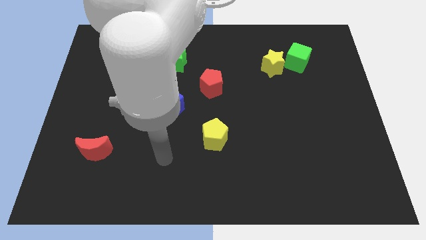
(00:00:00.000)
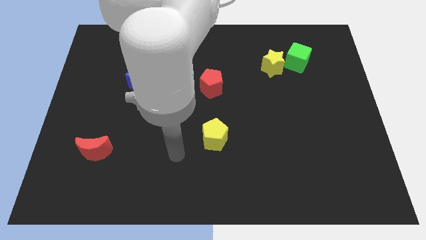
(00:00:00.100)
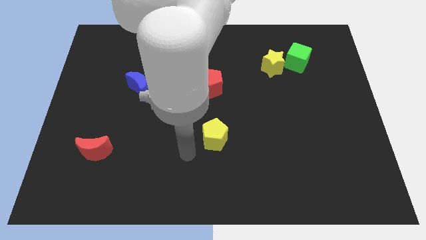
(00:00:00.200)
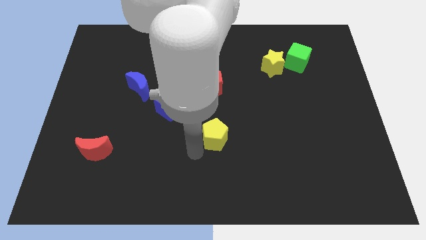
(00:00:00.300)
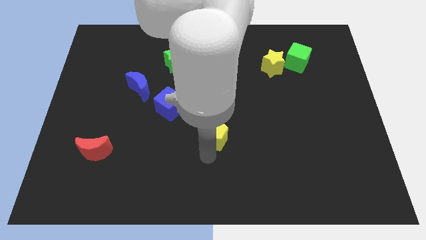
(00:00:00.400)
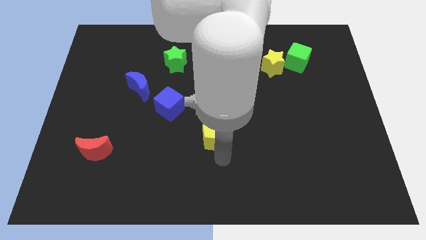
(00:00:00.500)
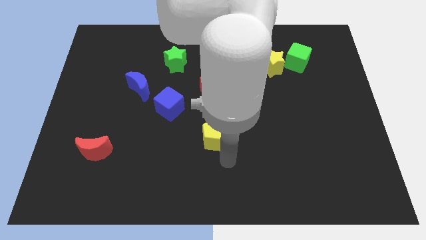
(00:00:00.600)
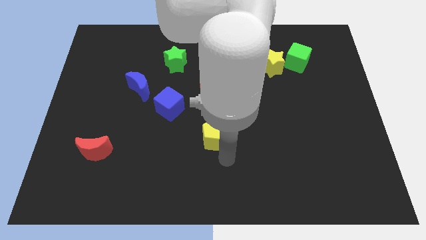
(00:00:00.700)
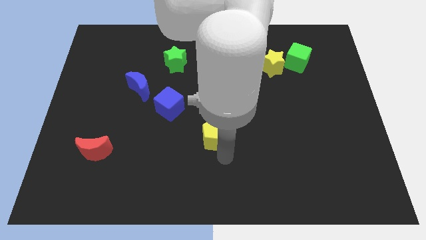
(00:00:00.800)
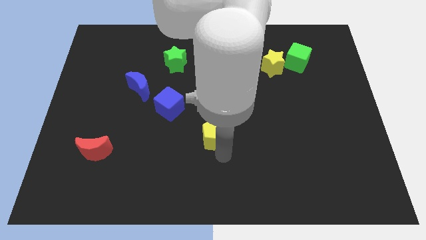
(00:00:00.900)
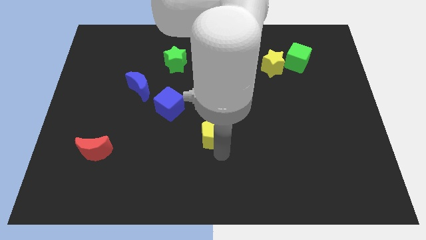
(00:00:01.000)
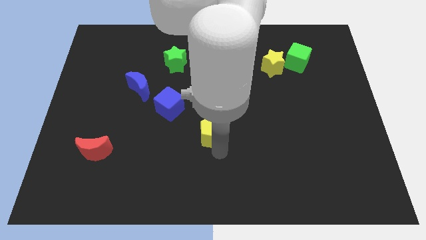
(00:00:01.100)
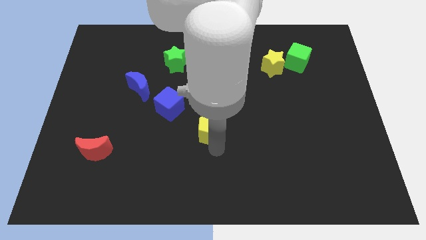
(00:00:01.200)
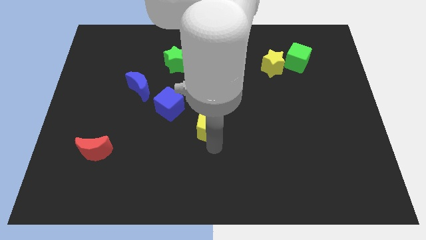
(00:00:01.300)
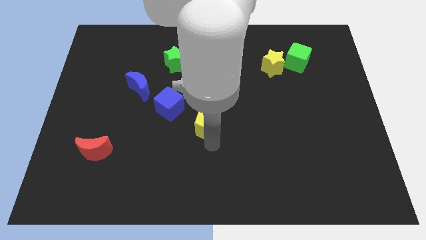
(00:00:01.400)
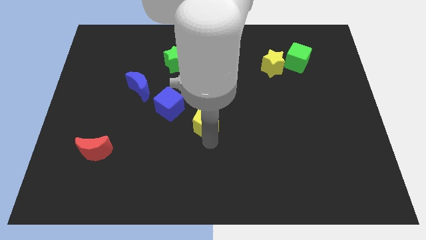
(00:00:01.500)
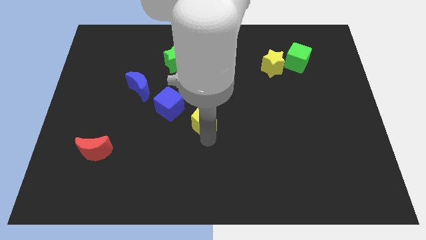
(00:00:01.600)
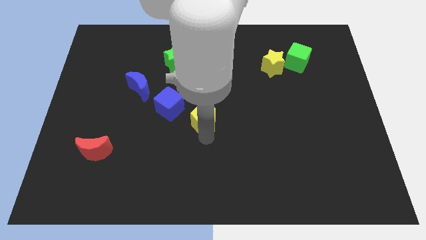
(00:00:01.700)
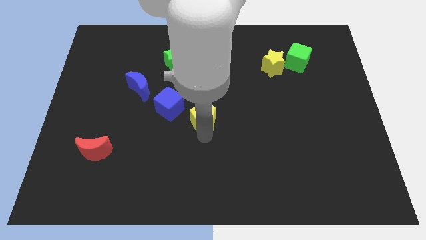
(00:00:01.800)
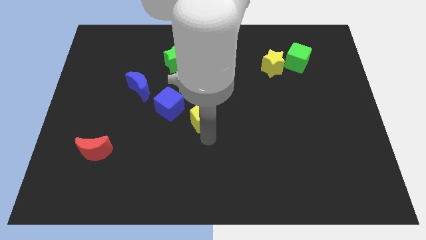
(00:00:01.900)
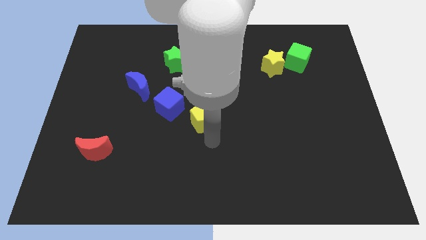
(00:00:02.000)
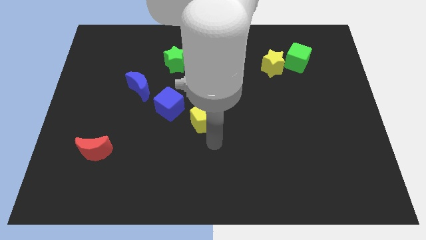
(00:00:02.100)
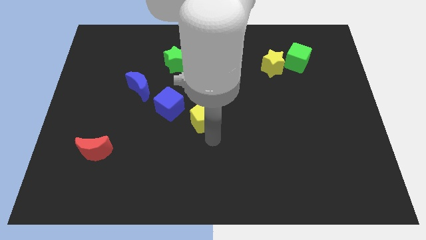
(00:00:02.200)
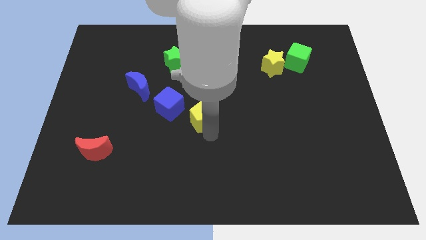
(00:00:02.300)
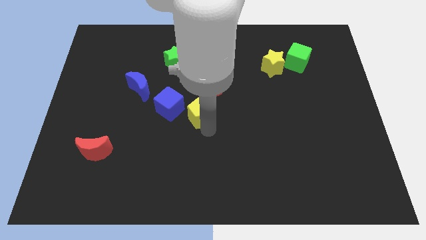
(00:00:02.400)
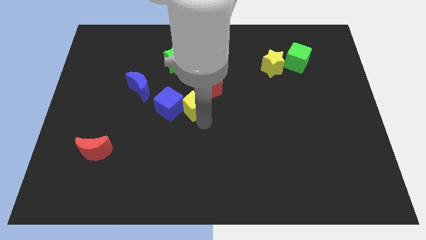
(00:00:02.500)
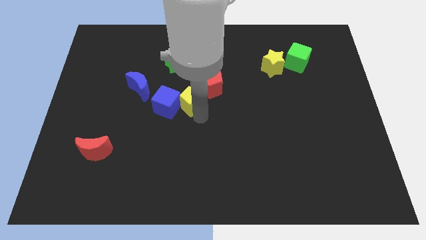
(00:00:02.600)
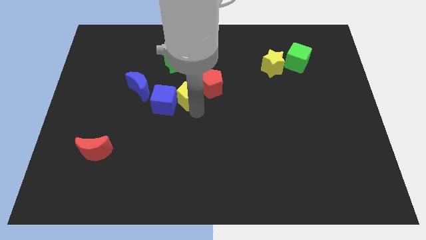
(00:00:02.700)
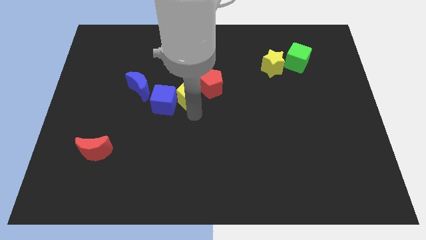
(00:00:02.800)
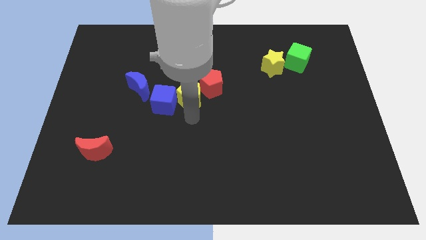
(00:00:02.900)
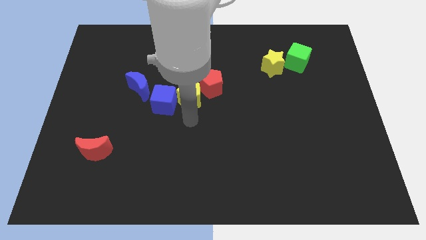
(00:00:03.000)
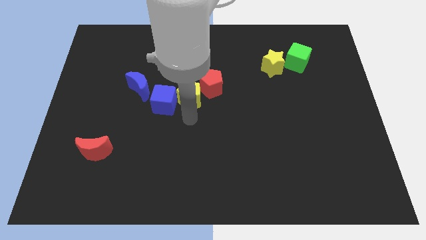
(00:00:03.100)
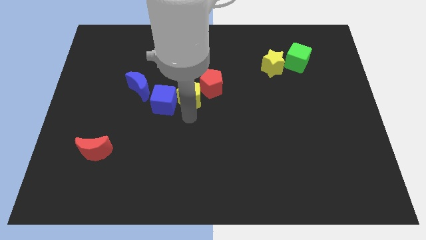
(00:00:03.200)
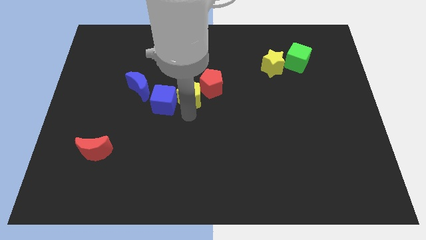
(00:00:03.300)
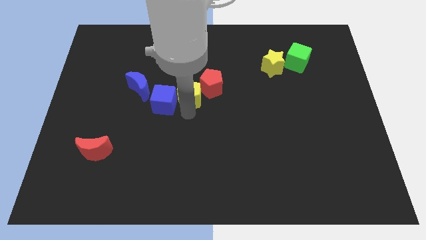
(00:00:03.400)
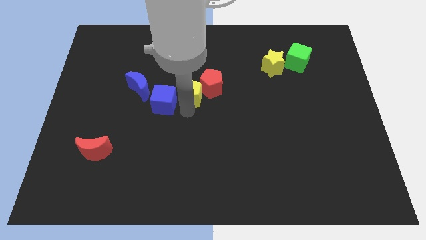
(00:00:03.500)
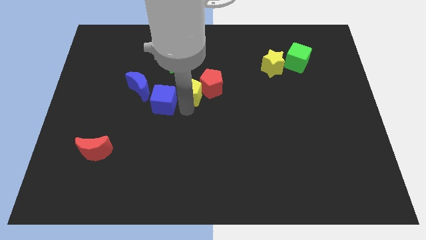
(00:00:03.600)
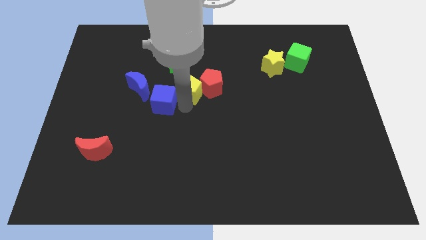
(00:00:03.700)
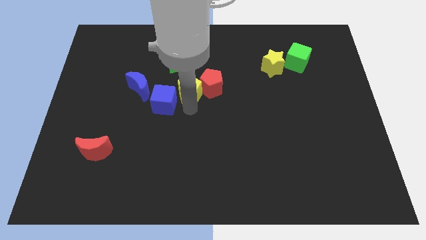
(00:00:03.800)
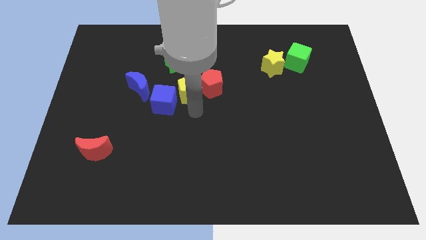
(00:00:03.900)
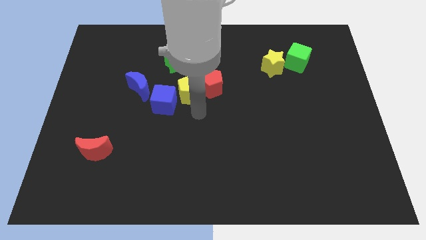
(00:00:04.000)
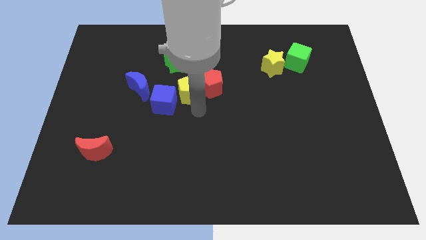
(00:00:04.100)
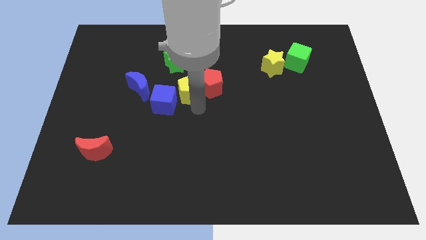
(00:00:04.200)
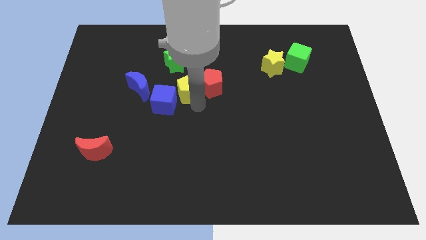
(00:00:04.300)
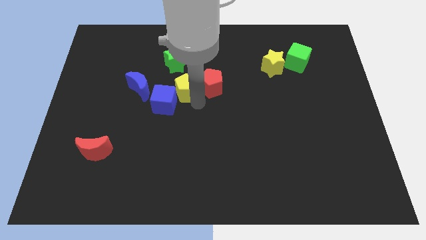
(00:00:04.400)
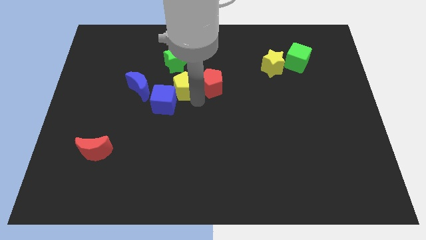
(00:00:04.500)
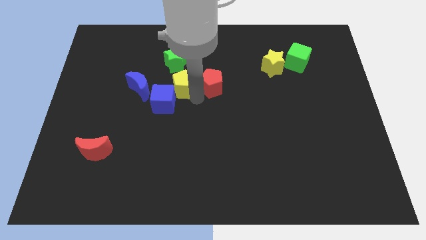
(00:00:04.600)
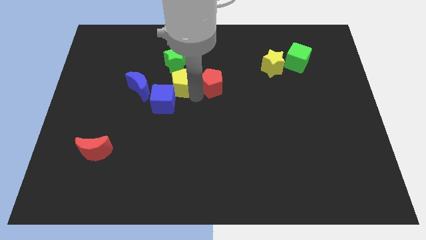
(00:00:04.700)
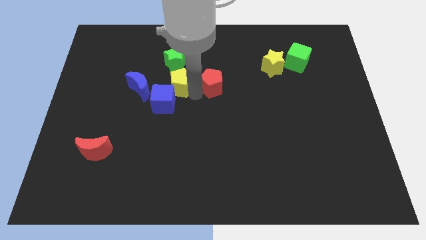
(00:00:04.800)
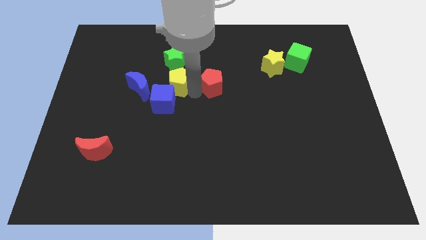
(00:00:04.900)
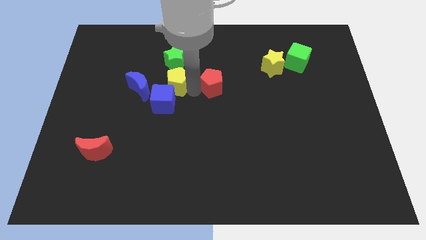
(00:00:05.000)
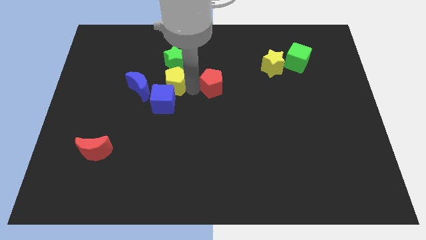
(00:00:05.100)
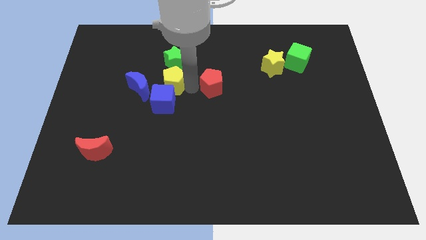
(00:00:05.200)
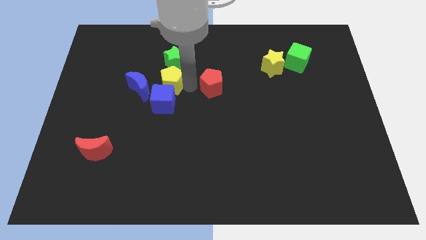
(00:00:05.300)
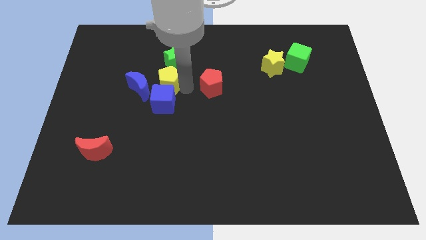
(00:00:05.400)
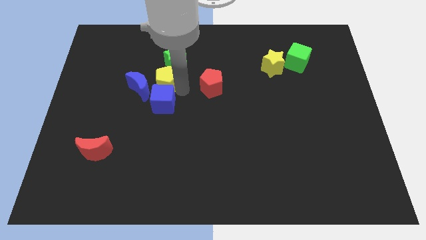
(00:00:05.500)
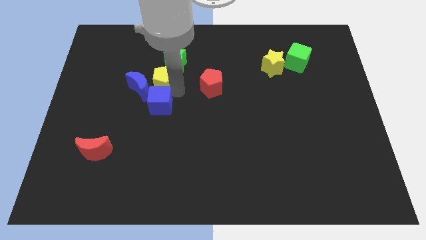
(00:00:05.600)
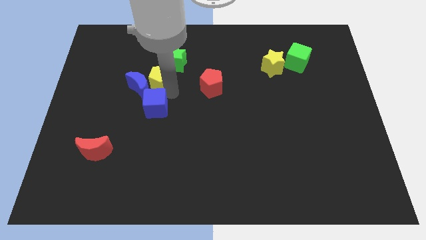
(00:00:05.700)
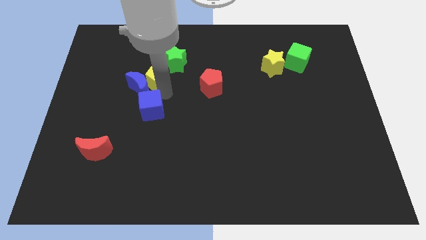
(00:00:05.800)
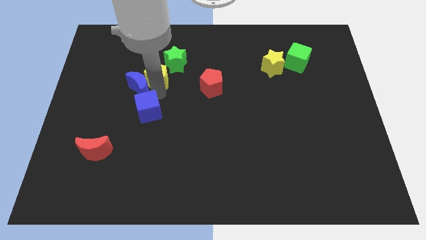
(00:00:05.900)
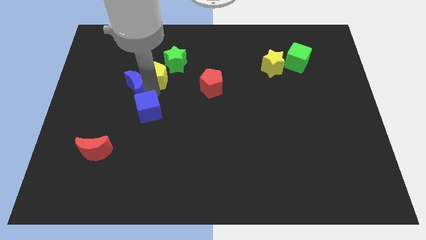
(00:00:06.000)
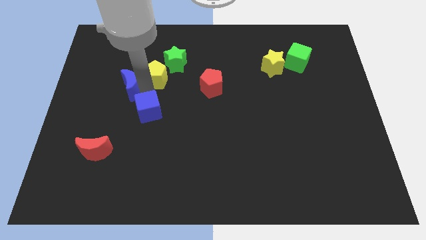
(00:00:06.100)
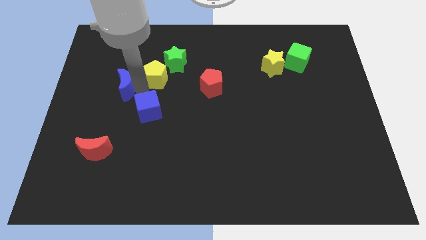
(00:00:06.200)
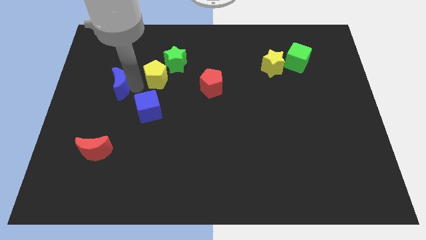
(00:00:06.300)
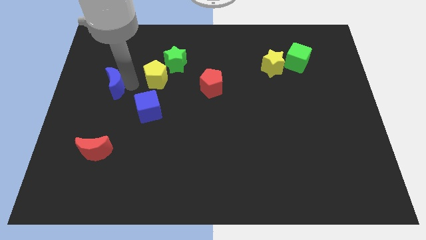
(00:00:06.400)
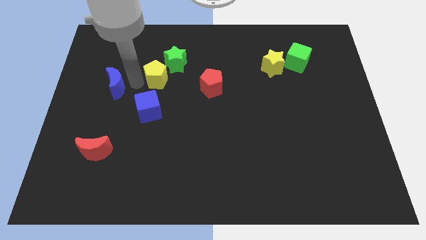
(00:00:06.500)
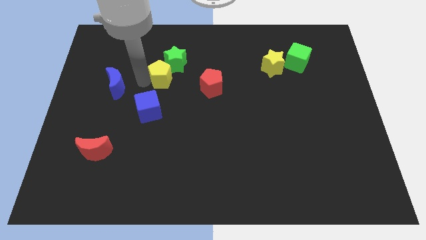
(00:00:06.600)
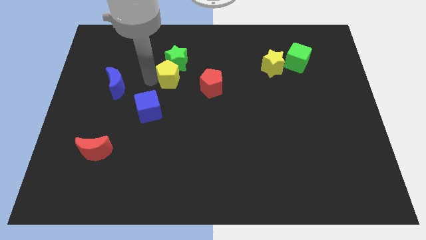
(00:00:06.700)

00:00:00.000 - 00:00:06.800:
put the yellow pentagon next to the green star

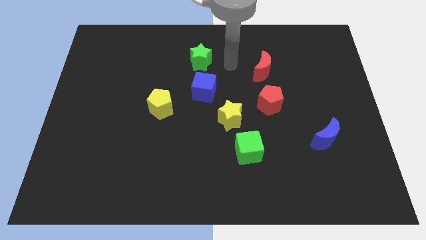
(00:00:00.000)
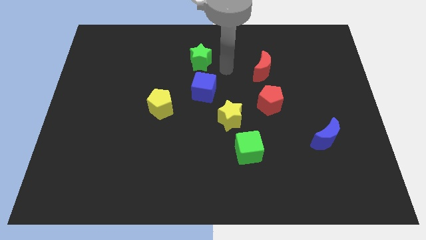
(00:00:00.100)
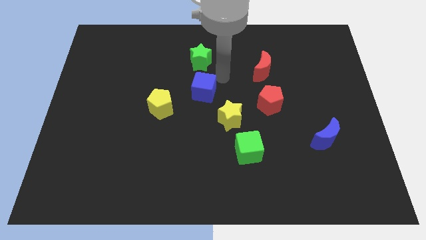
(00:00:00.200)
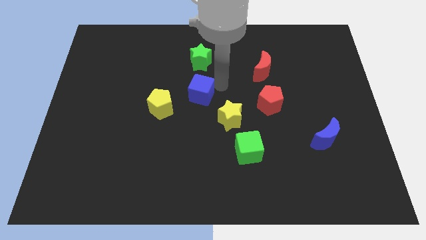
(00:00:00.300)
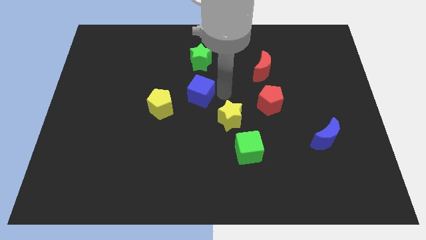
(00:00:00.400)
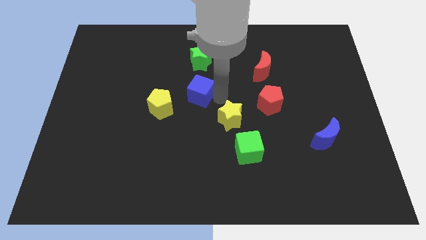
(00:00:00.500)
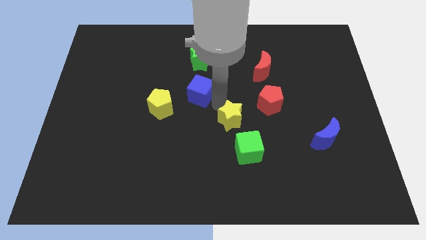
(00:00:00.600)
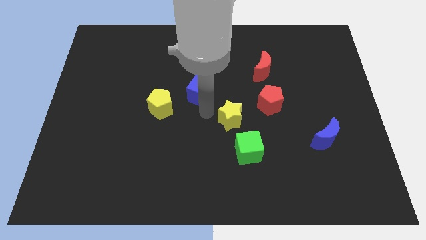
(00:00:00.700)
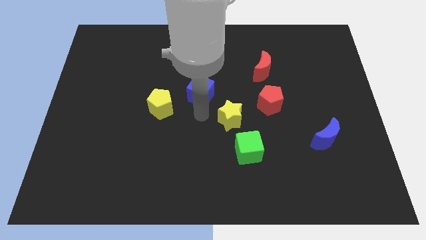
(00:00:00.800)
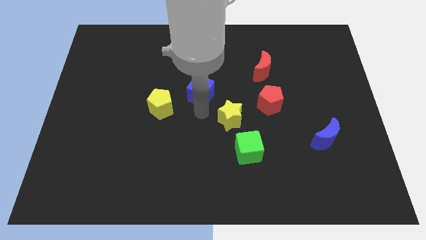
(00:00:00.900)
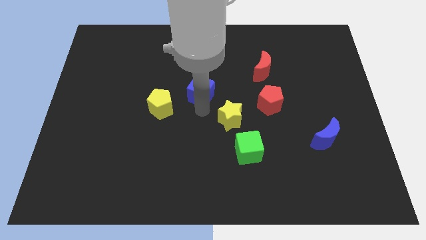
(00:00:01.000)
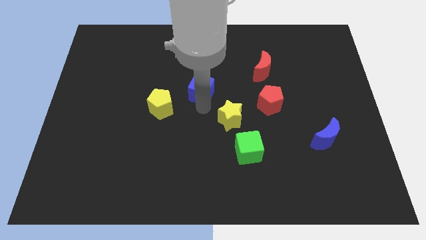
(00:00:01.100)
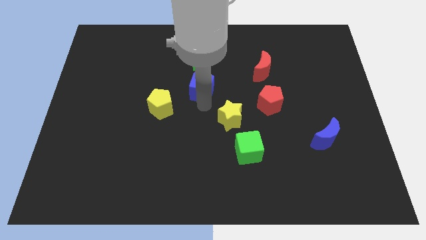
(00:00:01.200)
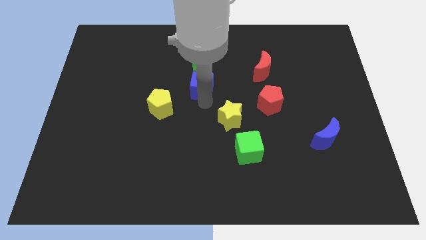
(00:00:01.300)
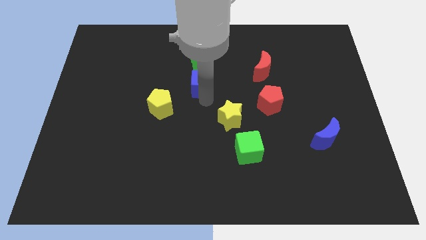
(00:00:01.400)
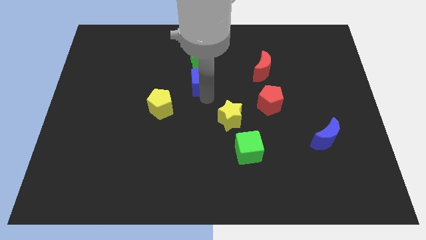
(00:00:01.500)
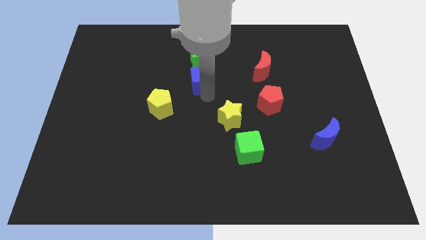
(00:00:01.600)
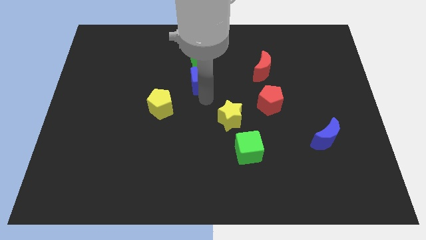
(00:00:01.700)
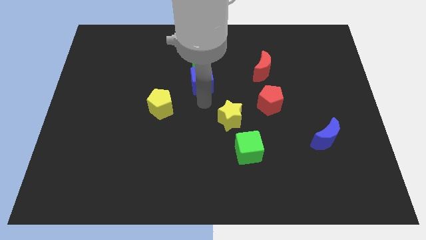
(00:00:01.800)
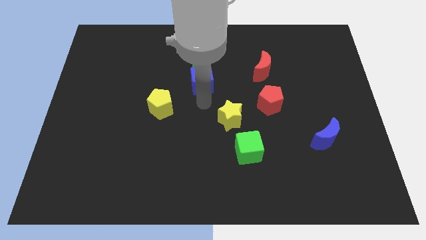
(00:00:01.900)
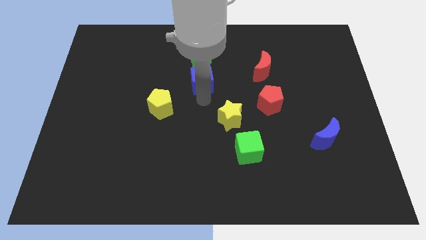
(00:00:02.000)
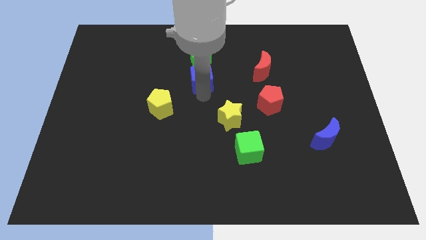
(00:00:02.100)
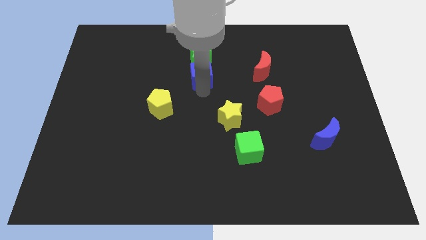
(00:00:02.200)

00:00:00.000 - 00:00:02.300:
push the blue cube next to the green star
